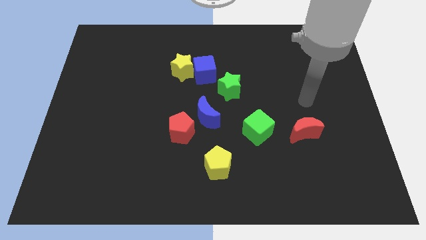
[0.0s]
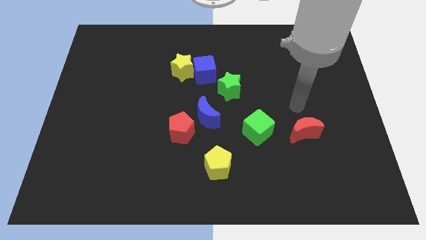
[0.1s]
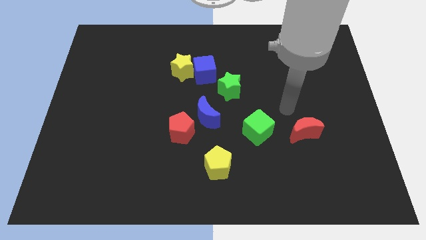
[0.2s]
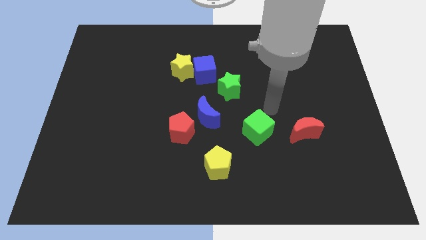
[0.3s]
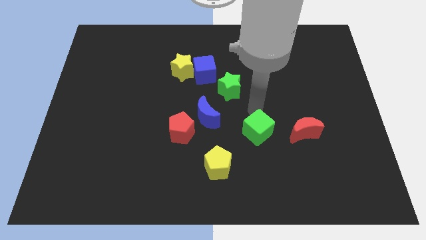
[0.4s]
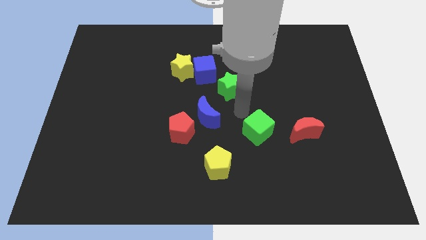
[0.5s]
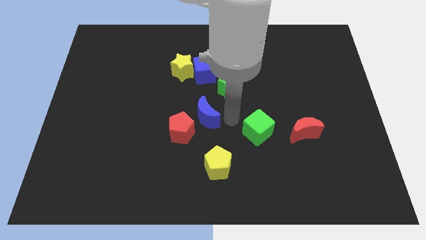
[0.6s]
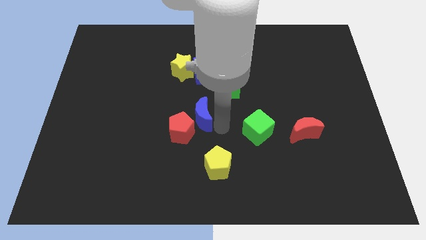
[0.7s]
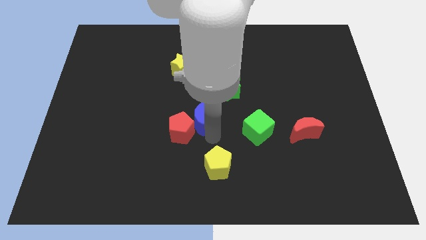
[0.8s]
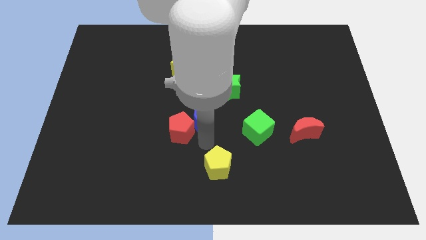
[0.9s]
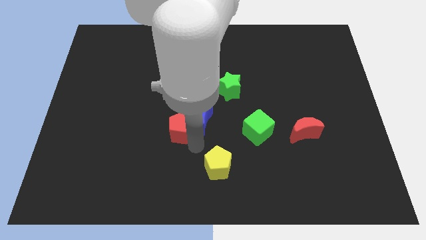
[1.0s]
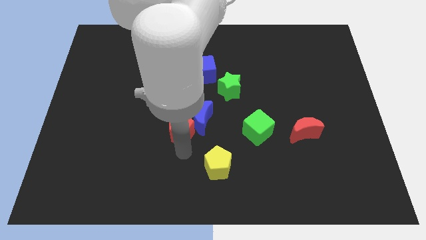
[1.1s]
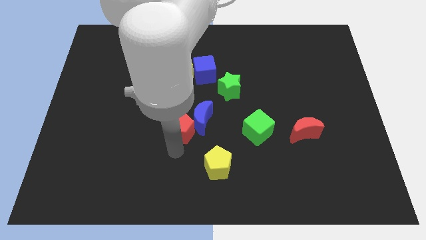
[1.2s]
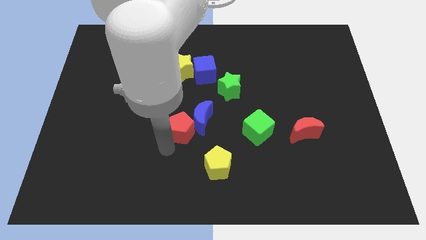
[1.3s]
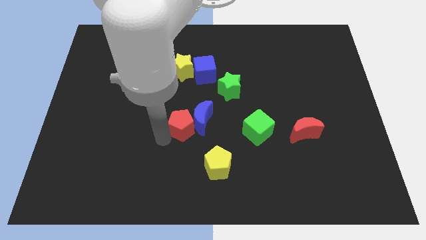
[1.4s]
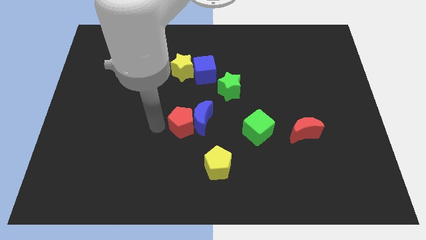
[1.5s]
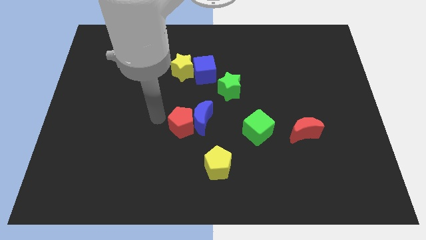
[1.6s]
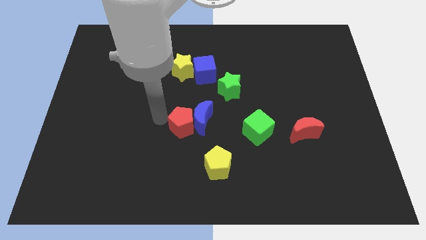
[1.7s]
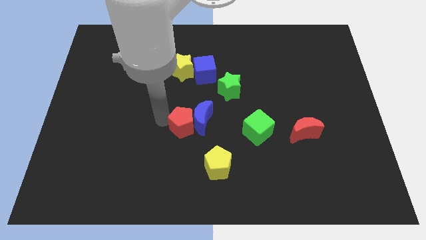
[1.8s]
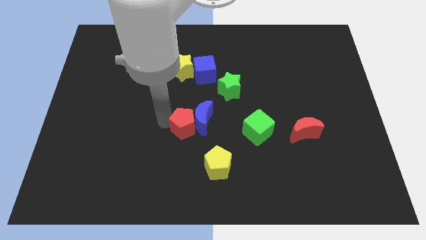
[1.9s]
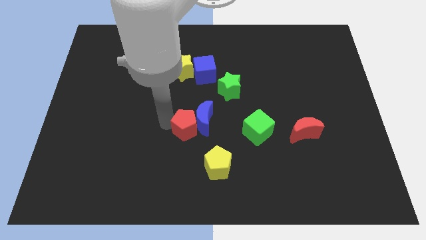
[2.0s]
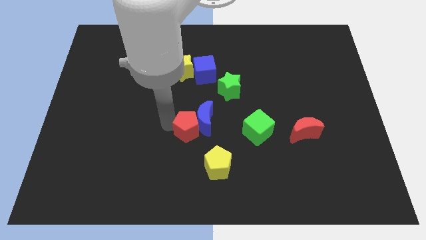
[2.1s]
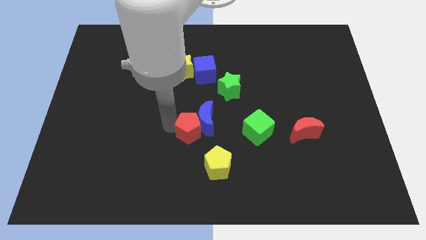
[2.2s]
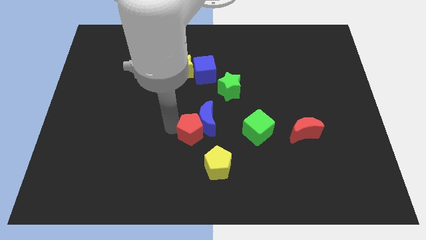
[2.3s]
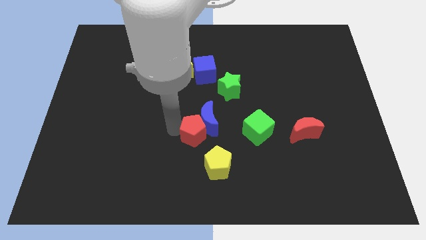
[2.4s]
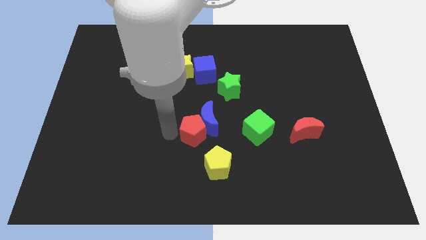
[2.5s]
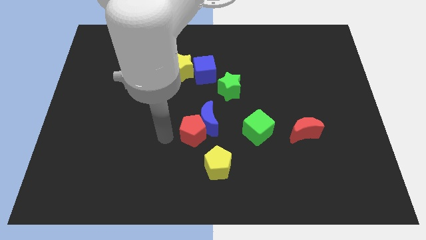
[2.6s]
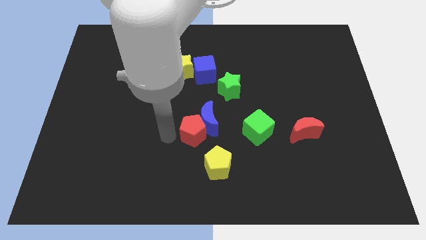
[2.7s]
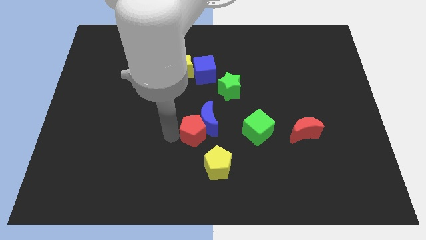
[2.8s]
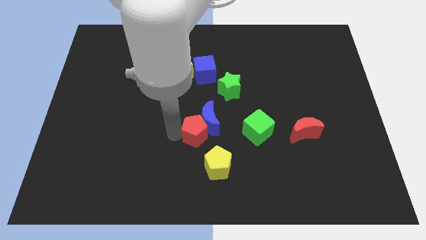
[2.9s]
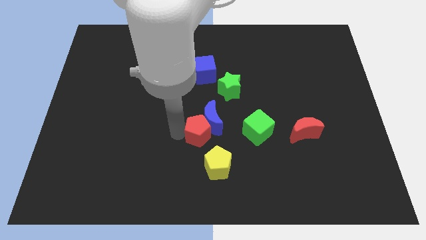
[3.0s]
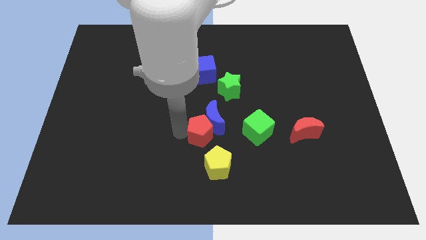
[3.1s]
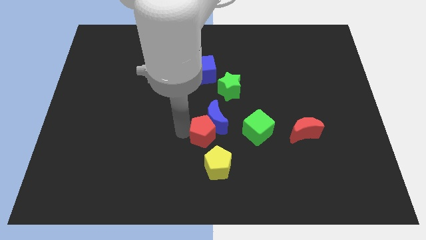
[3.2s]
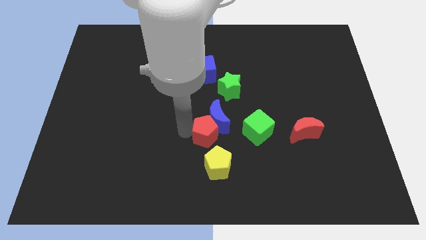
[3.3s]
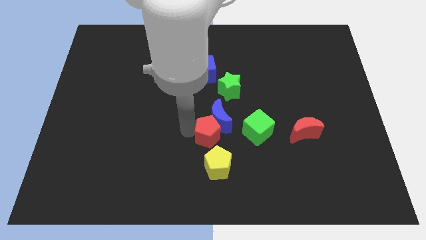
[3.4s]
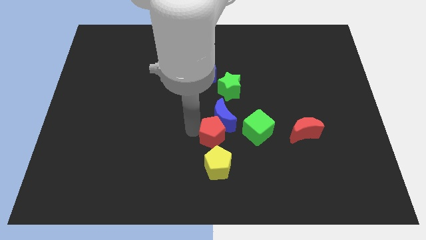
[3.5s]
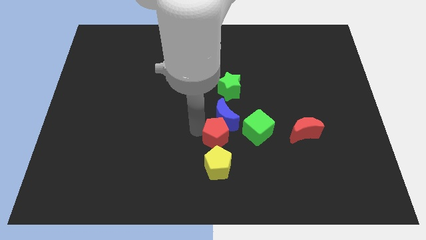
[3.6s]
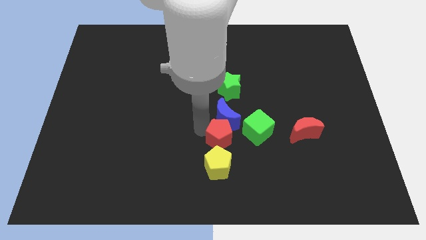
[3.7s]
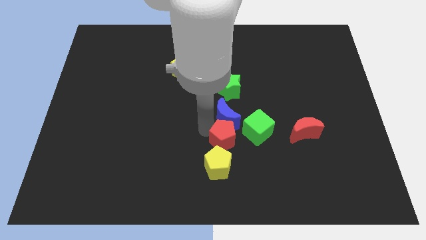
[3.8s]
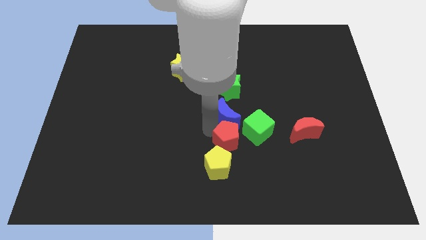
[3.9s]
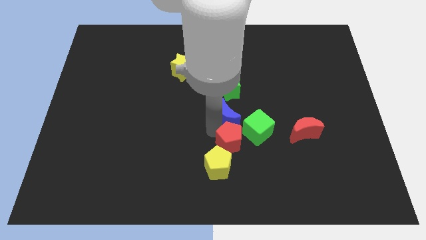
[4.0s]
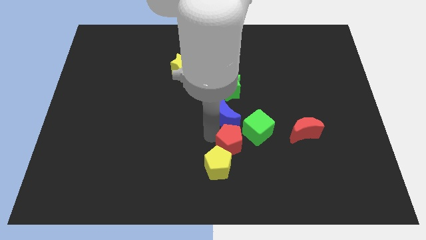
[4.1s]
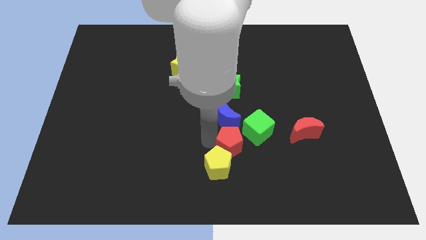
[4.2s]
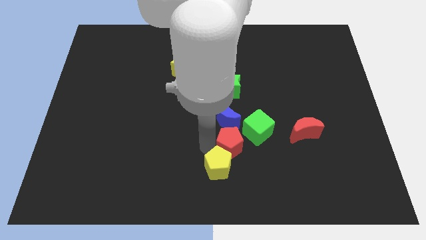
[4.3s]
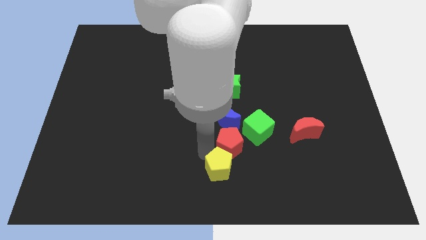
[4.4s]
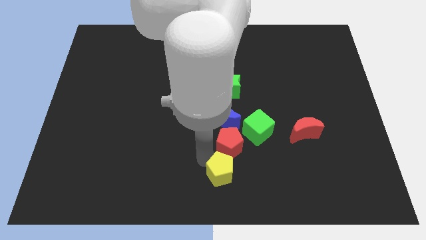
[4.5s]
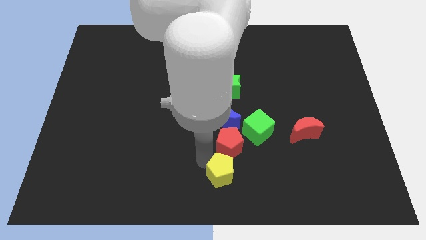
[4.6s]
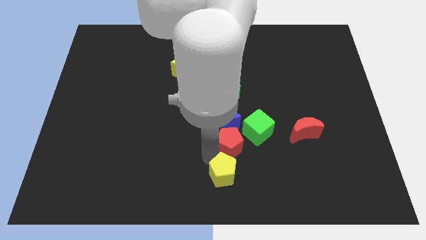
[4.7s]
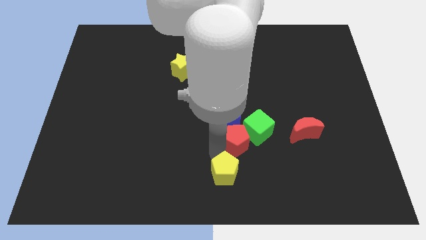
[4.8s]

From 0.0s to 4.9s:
slide the red pentagon towards the green cube

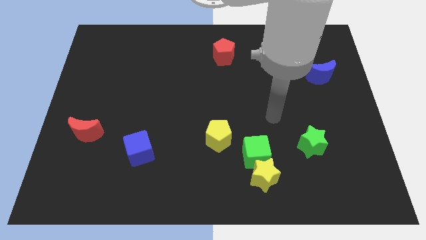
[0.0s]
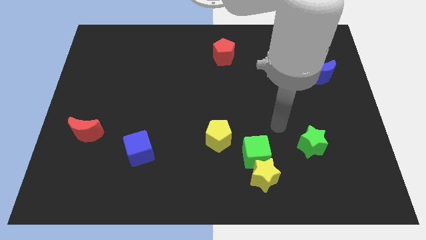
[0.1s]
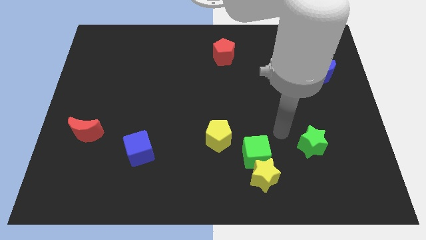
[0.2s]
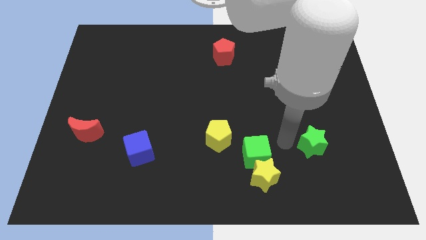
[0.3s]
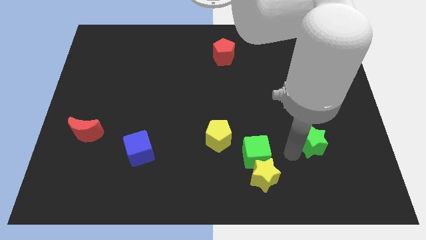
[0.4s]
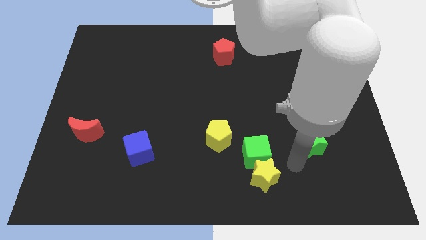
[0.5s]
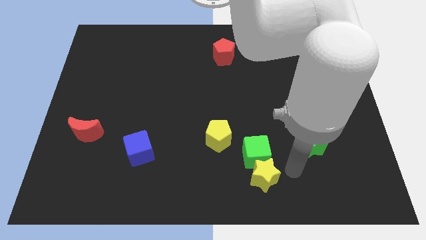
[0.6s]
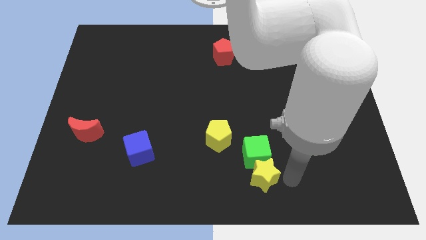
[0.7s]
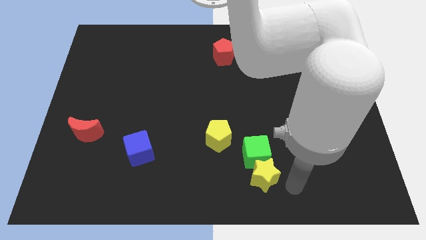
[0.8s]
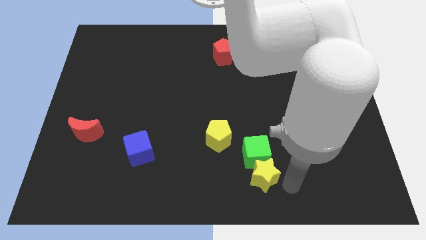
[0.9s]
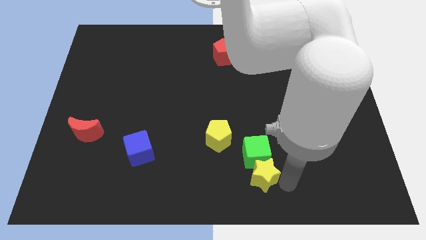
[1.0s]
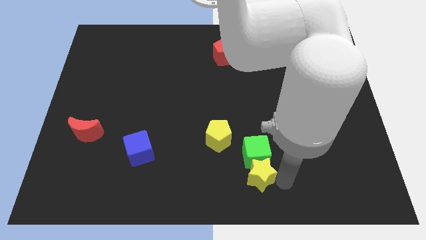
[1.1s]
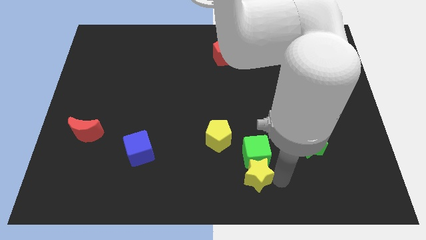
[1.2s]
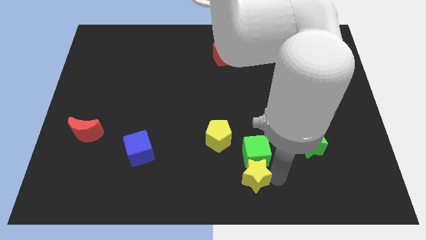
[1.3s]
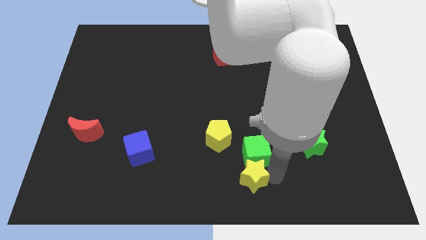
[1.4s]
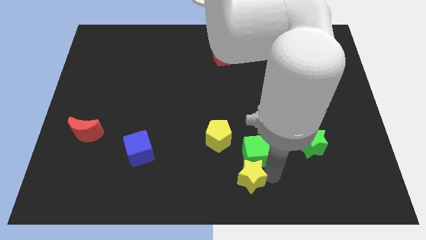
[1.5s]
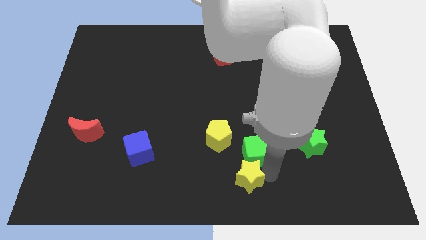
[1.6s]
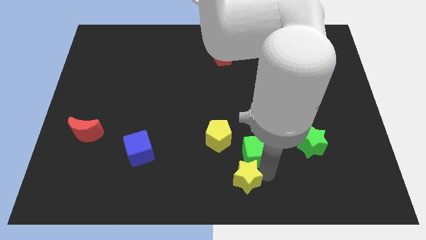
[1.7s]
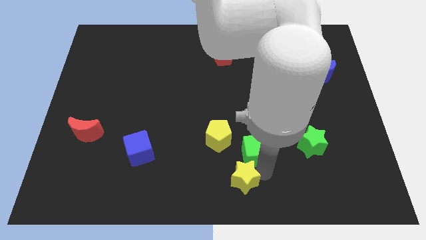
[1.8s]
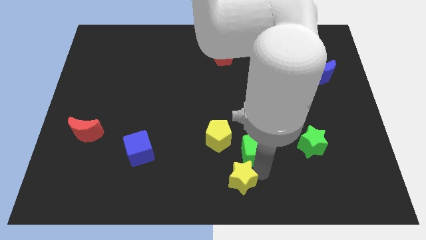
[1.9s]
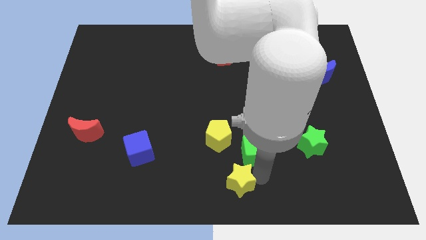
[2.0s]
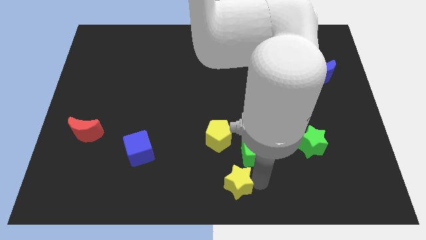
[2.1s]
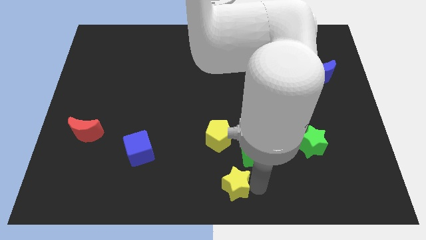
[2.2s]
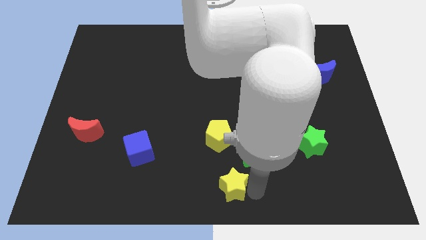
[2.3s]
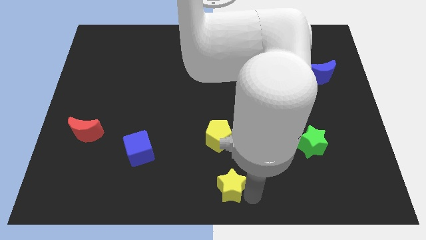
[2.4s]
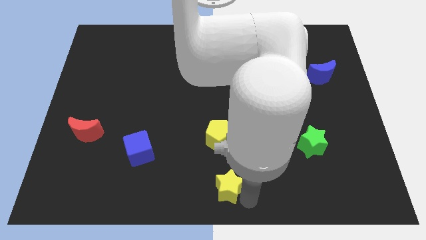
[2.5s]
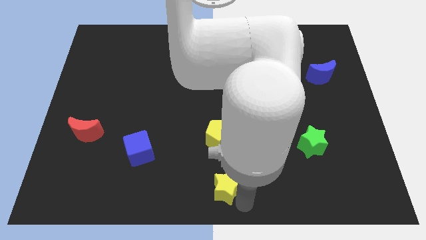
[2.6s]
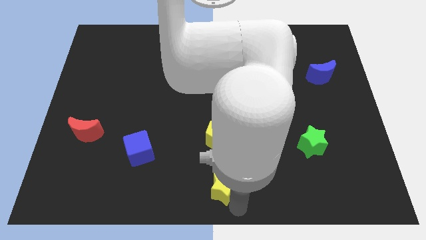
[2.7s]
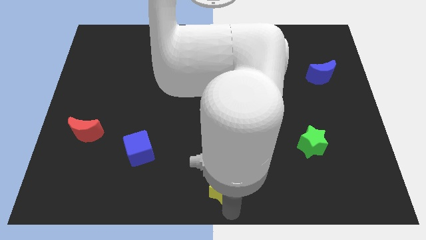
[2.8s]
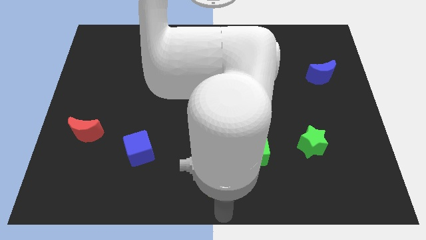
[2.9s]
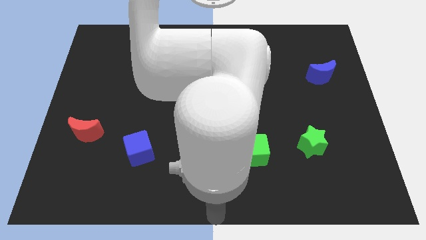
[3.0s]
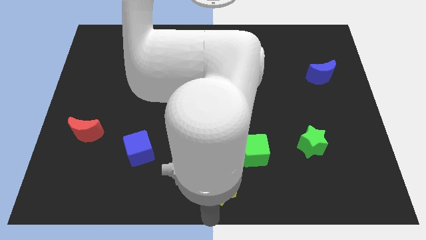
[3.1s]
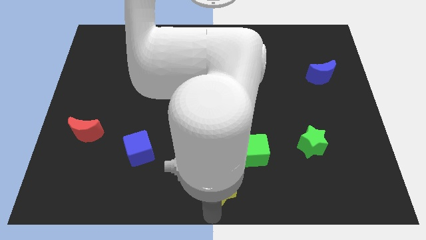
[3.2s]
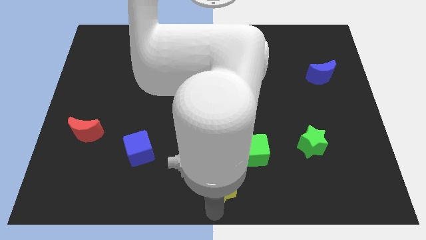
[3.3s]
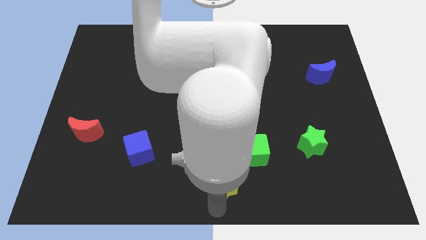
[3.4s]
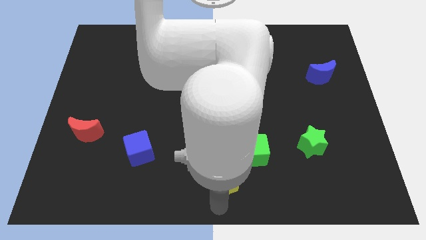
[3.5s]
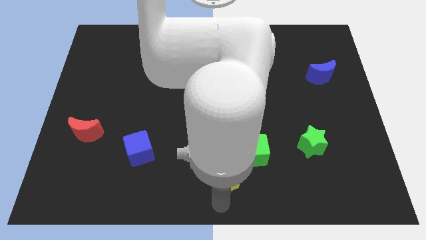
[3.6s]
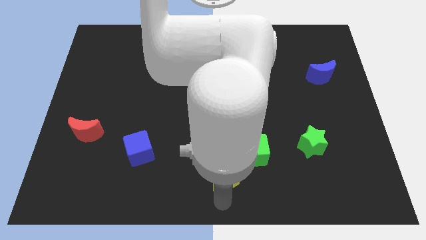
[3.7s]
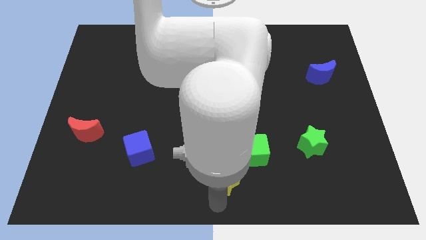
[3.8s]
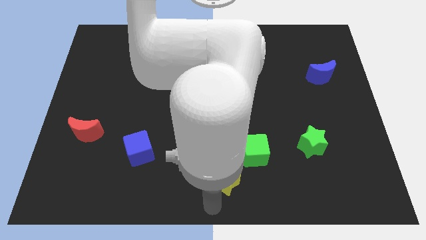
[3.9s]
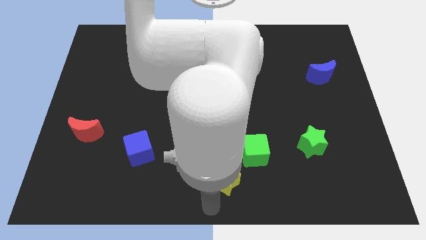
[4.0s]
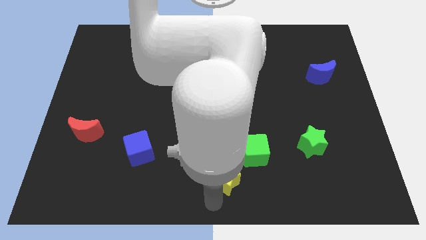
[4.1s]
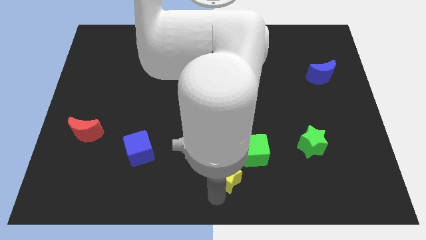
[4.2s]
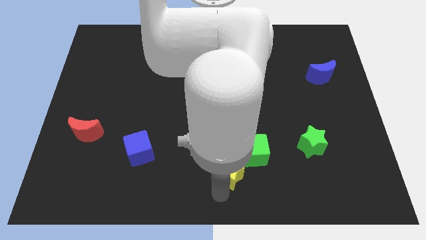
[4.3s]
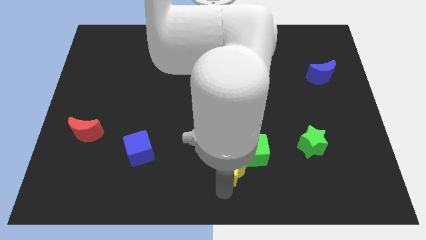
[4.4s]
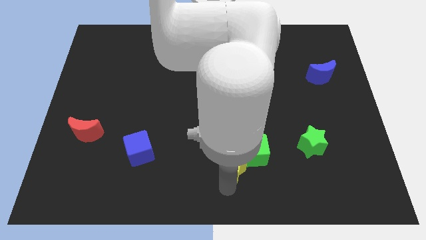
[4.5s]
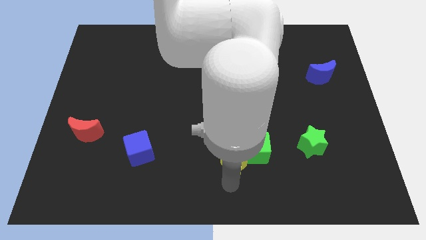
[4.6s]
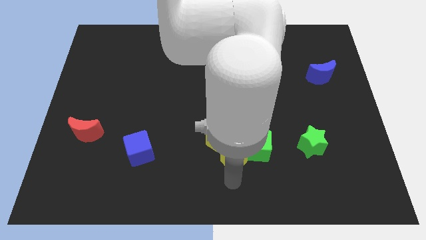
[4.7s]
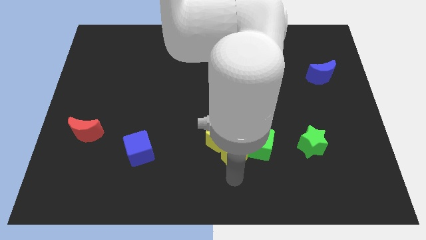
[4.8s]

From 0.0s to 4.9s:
push the yellow star close to the yellow pentagon
